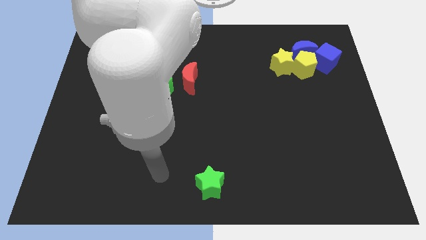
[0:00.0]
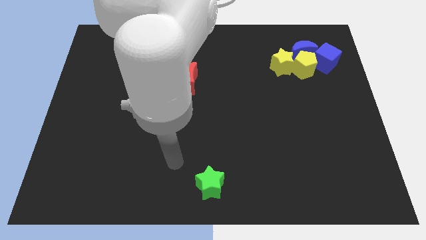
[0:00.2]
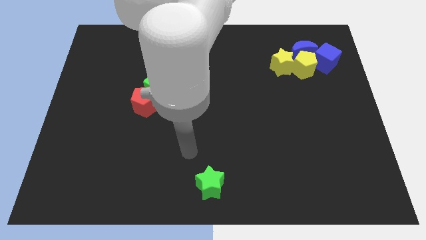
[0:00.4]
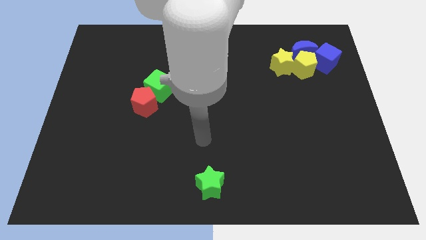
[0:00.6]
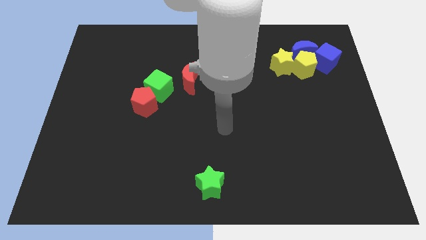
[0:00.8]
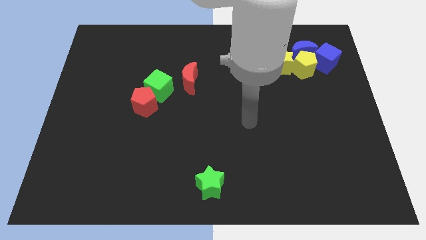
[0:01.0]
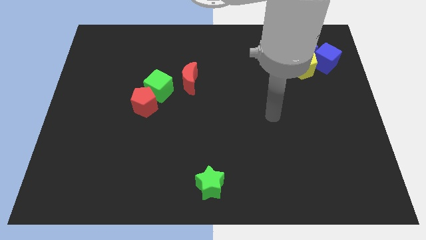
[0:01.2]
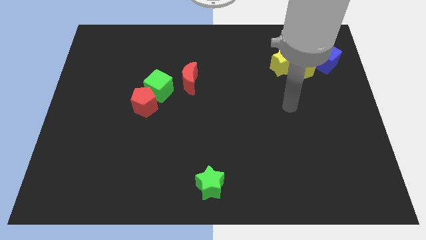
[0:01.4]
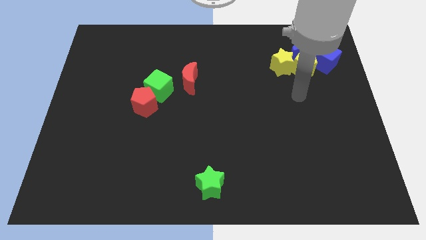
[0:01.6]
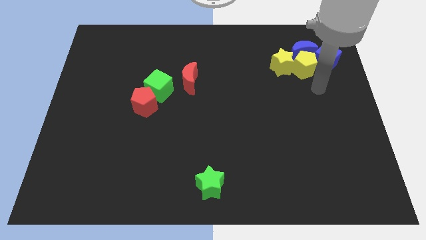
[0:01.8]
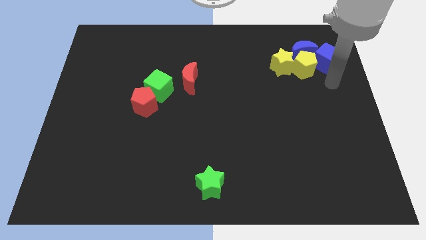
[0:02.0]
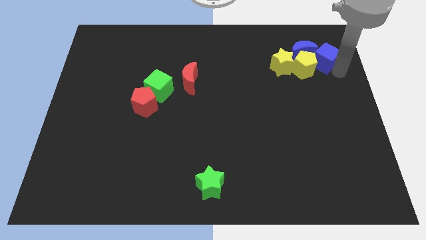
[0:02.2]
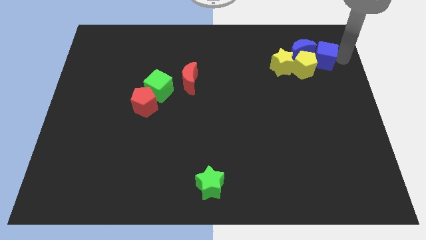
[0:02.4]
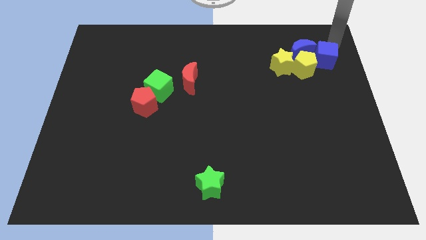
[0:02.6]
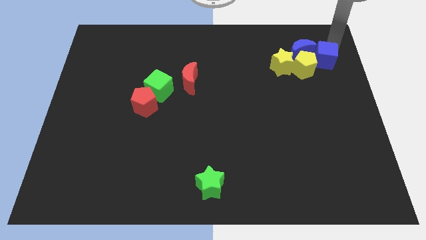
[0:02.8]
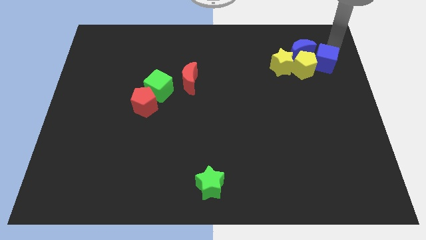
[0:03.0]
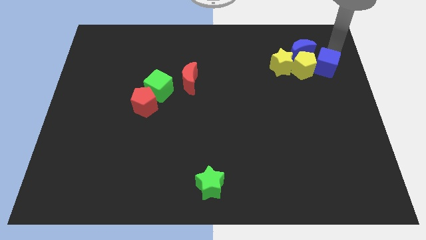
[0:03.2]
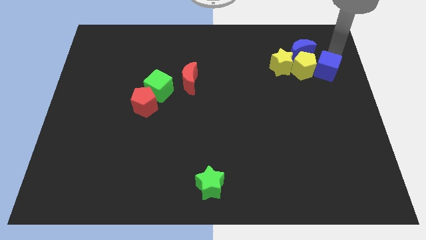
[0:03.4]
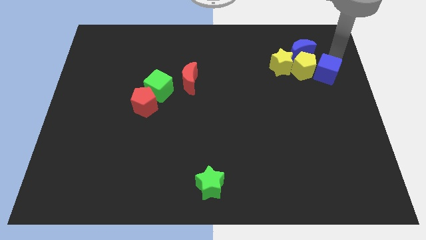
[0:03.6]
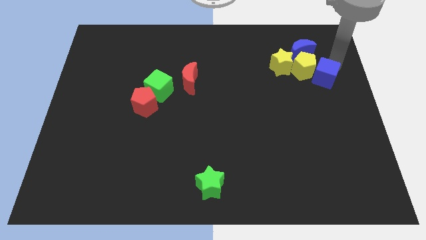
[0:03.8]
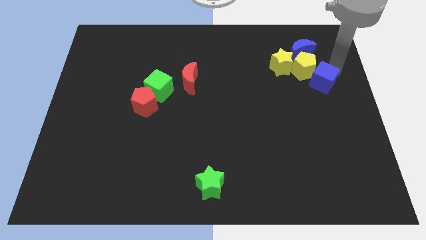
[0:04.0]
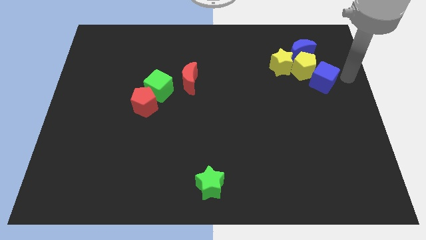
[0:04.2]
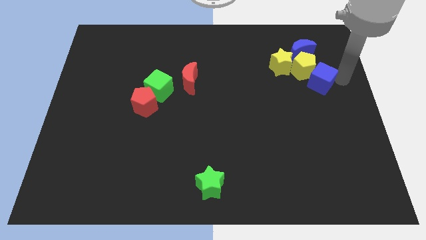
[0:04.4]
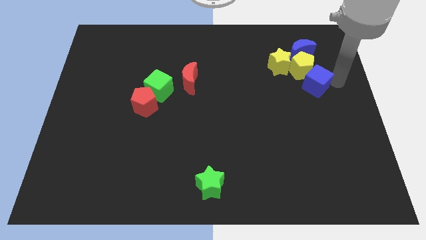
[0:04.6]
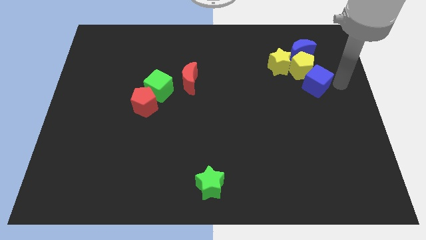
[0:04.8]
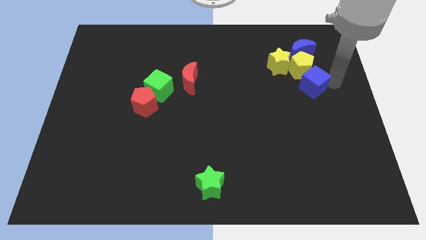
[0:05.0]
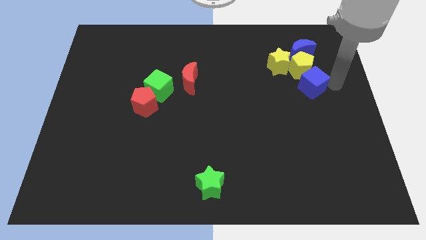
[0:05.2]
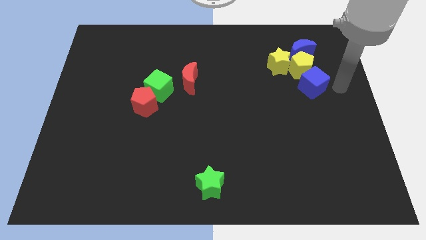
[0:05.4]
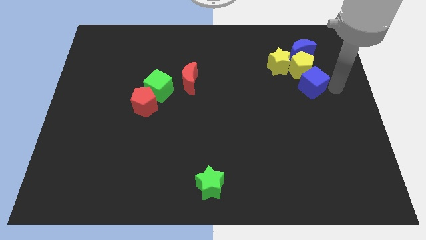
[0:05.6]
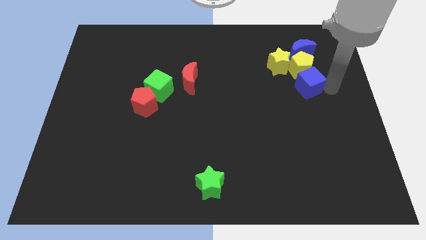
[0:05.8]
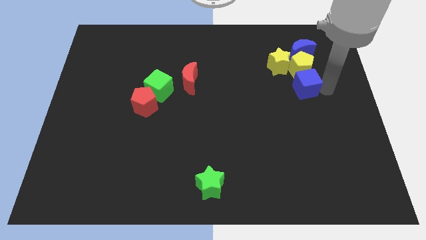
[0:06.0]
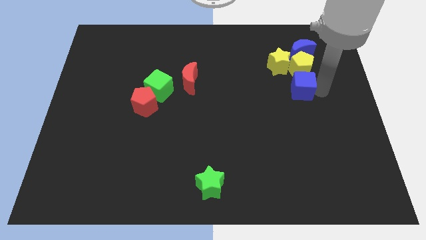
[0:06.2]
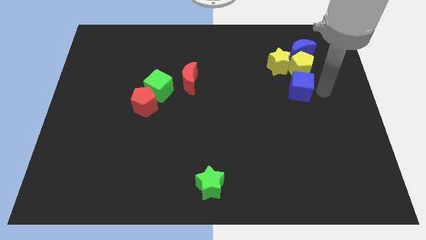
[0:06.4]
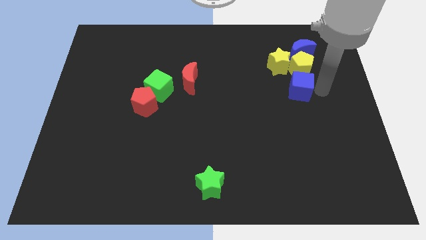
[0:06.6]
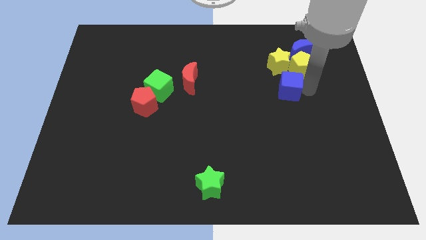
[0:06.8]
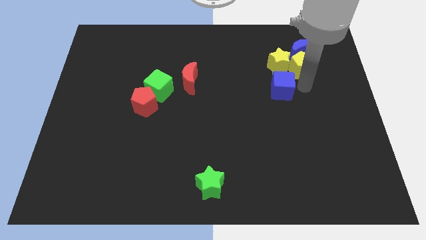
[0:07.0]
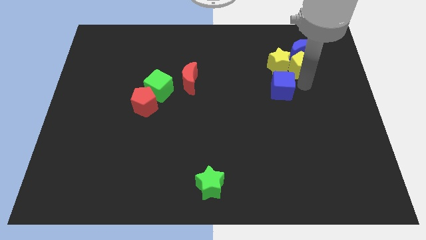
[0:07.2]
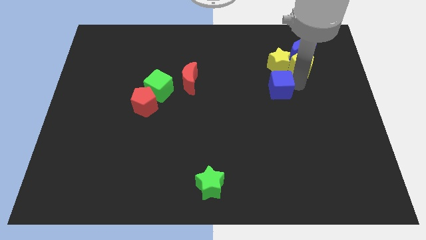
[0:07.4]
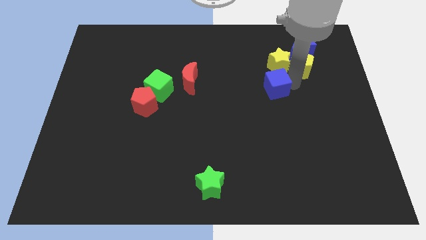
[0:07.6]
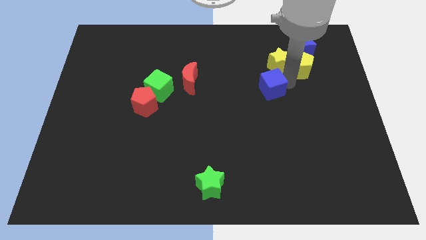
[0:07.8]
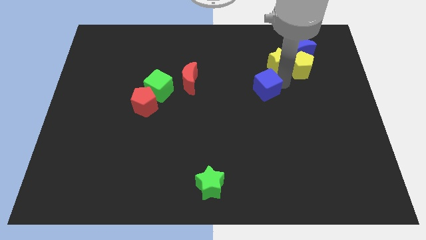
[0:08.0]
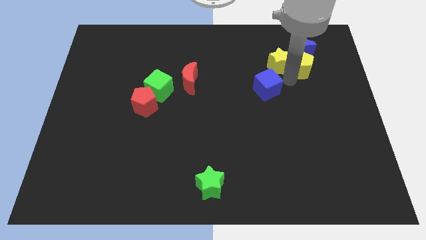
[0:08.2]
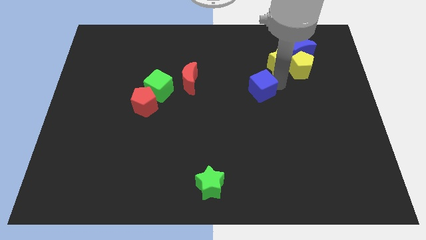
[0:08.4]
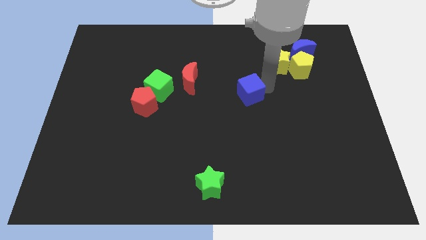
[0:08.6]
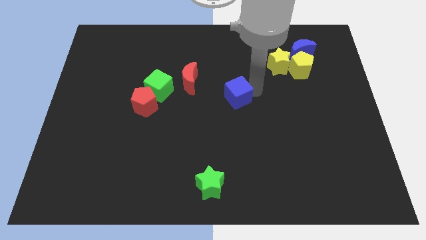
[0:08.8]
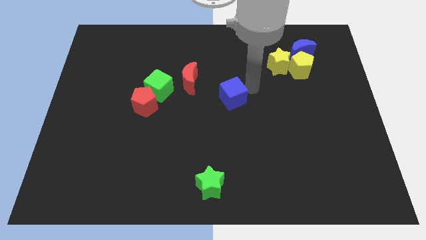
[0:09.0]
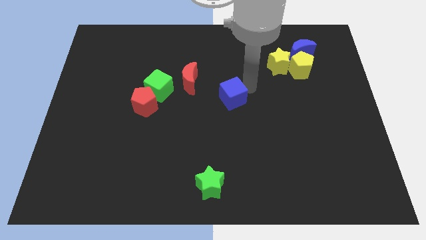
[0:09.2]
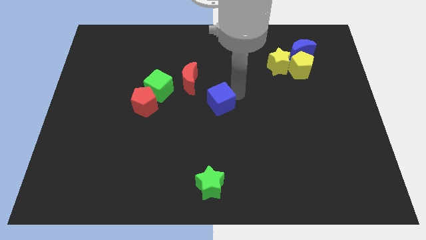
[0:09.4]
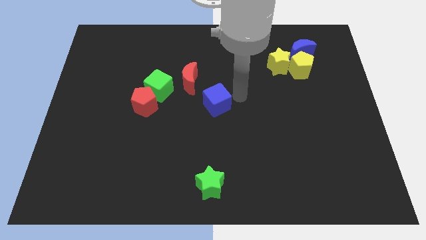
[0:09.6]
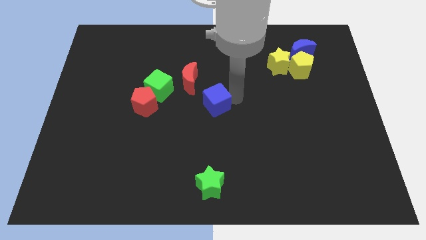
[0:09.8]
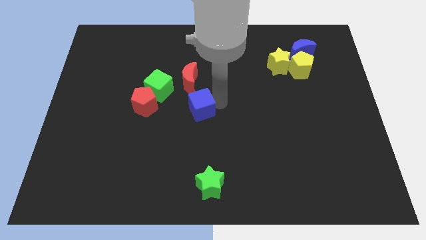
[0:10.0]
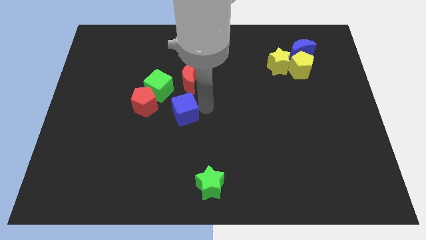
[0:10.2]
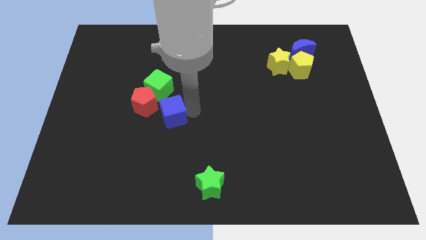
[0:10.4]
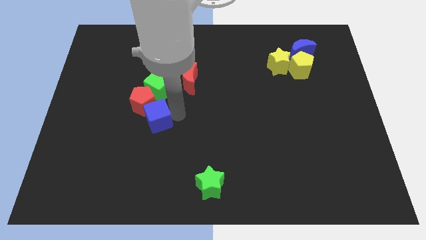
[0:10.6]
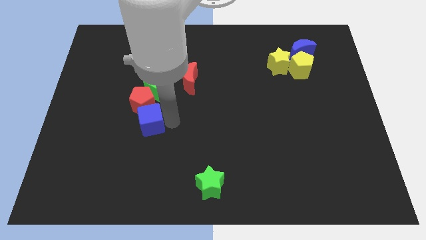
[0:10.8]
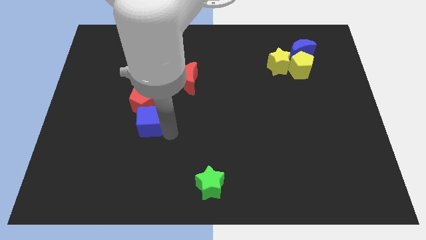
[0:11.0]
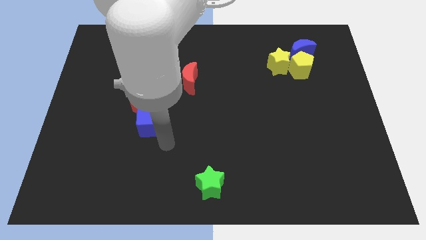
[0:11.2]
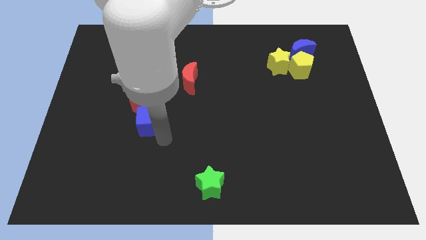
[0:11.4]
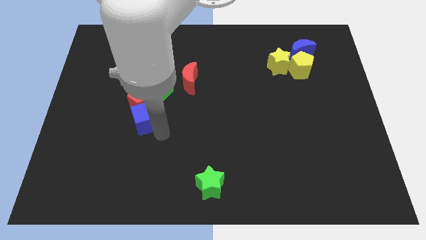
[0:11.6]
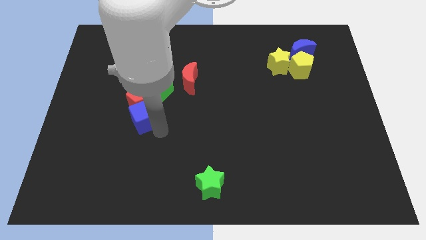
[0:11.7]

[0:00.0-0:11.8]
move the blue cube diagonally down and to the left of the green cube

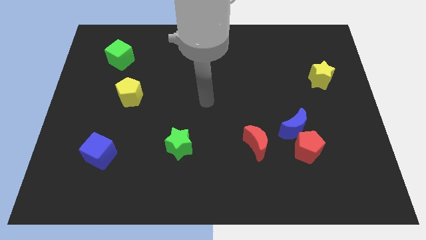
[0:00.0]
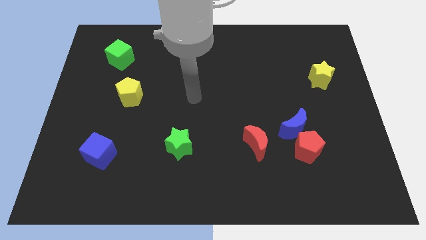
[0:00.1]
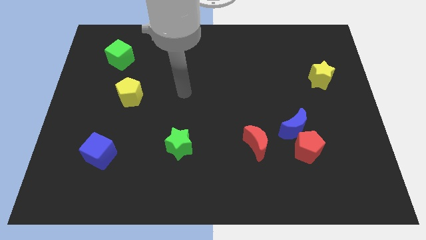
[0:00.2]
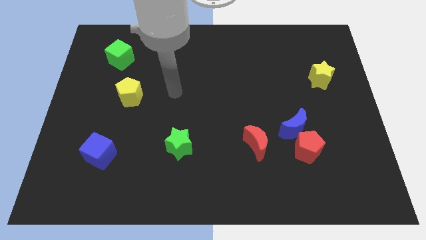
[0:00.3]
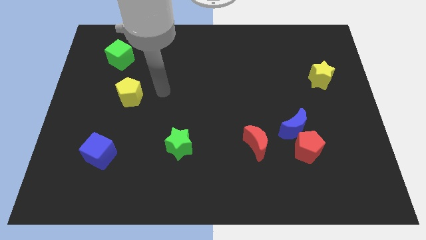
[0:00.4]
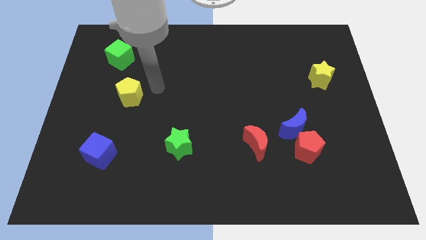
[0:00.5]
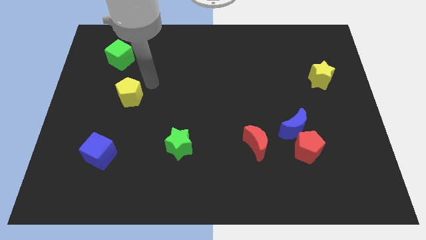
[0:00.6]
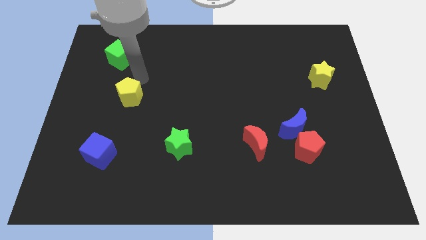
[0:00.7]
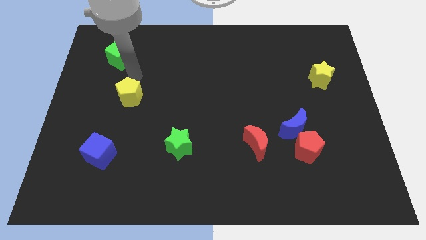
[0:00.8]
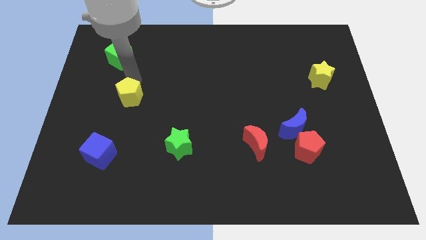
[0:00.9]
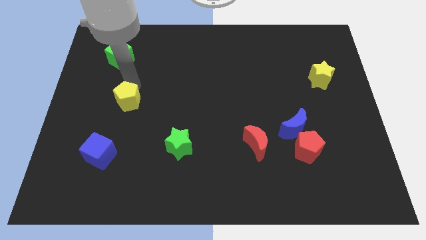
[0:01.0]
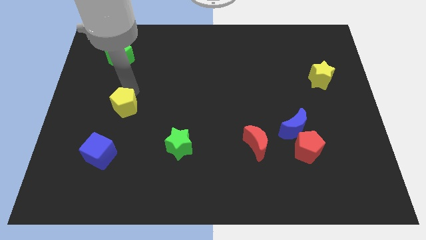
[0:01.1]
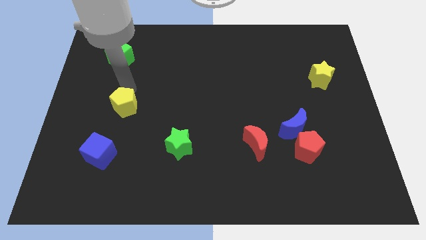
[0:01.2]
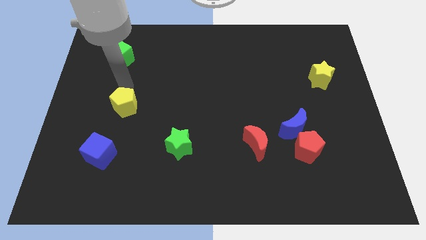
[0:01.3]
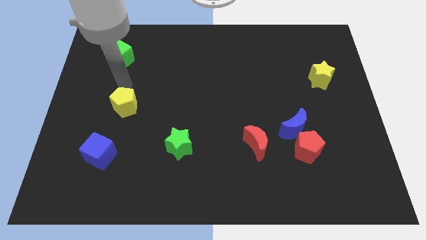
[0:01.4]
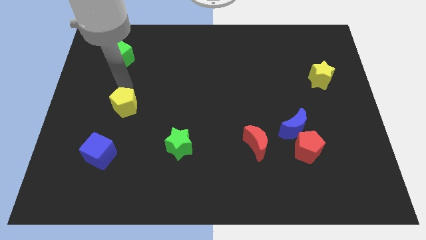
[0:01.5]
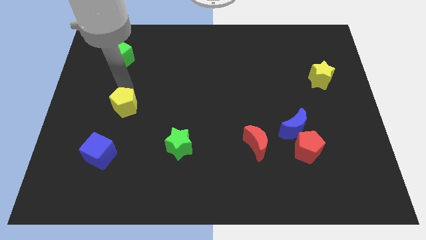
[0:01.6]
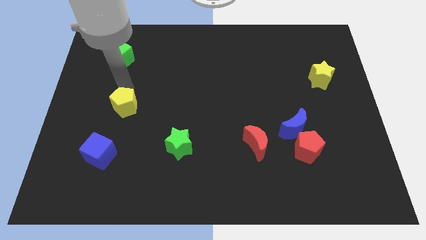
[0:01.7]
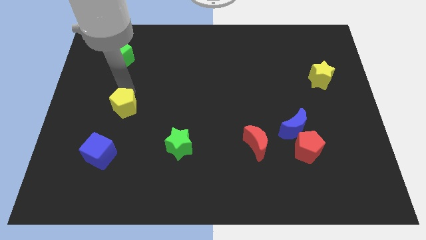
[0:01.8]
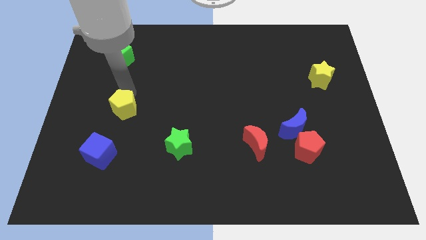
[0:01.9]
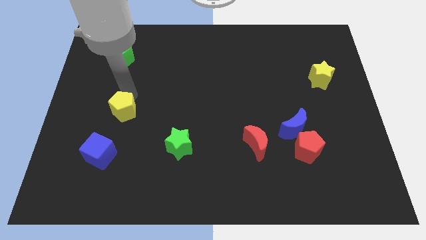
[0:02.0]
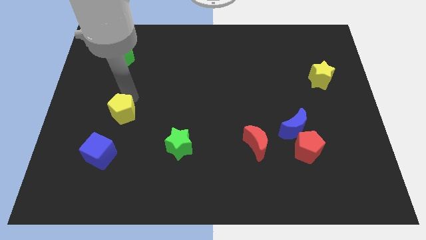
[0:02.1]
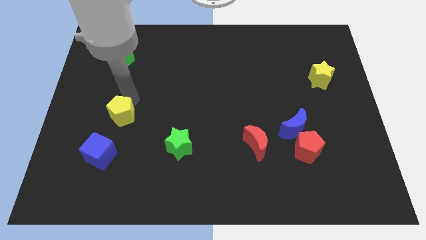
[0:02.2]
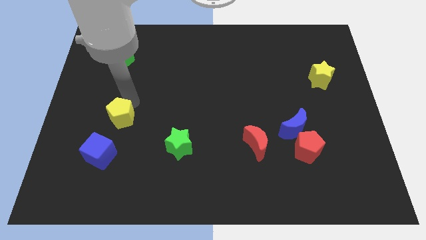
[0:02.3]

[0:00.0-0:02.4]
put the yellow pentagon diagonally up and to the right of the blue cube
